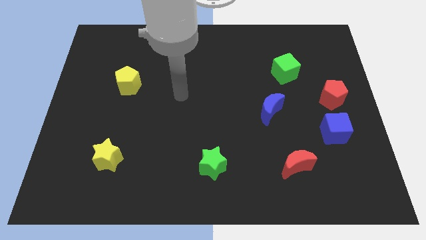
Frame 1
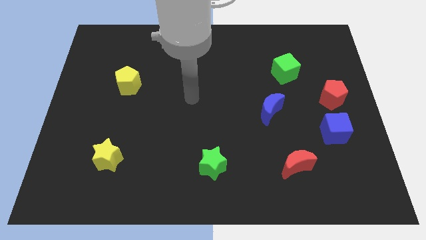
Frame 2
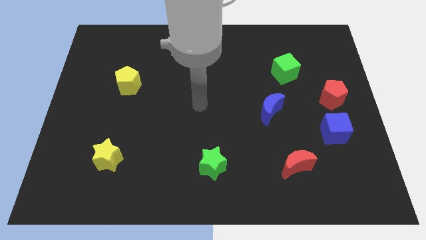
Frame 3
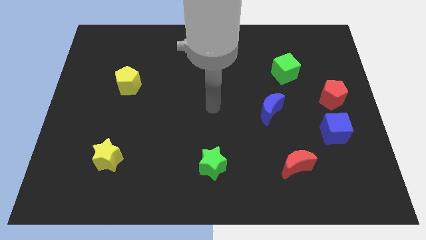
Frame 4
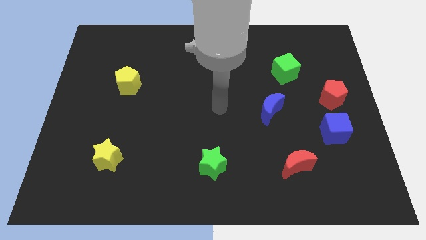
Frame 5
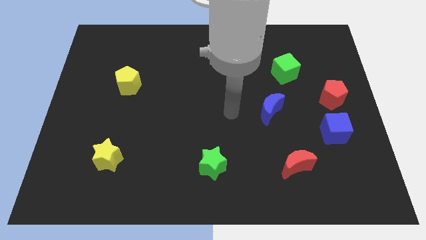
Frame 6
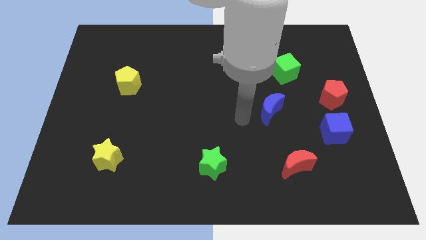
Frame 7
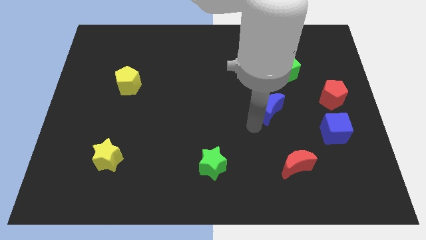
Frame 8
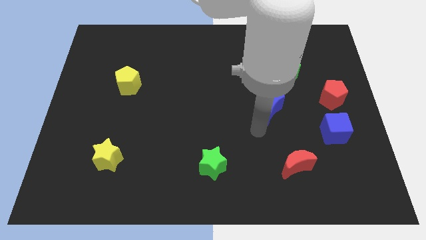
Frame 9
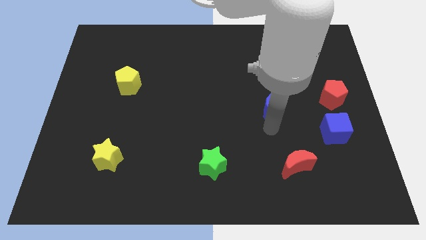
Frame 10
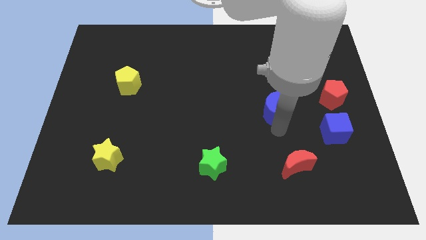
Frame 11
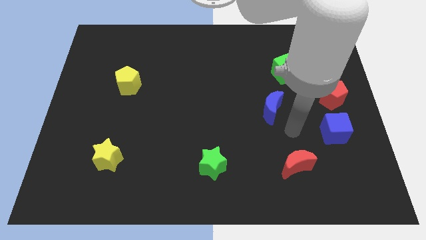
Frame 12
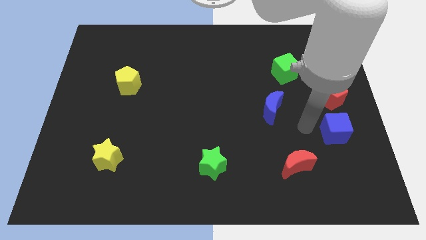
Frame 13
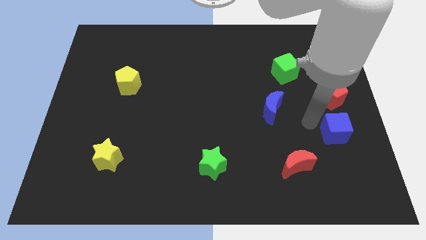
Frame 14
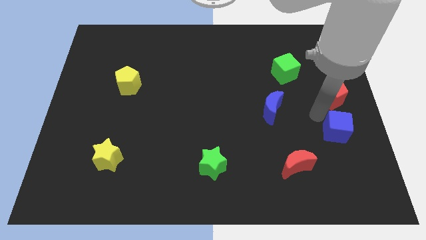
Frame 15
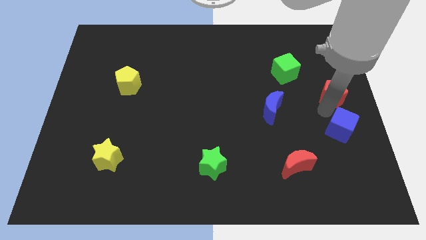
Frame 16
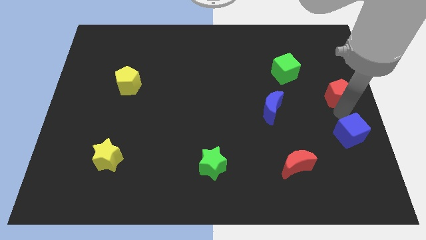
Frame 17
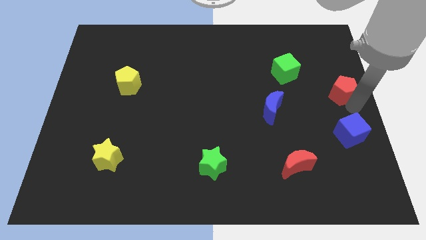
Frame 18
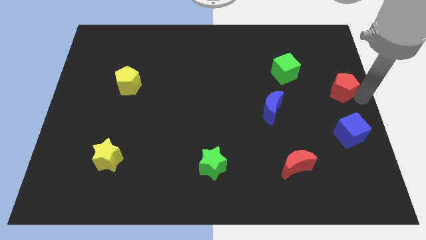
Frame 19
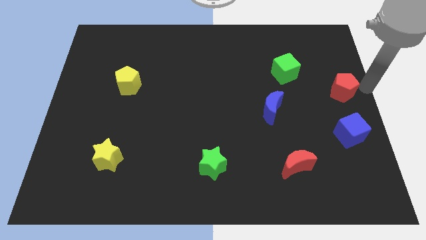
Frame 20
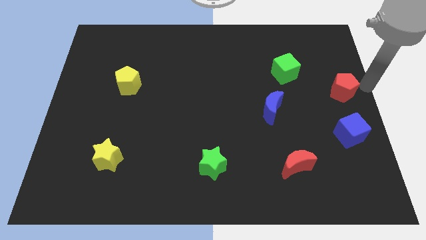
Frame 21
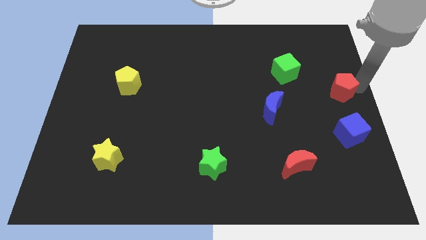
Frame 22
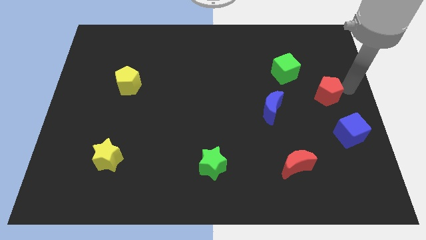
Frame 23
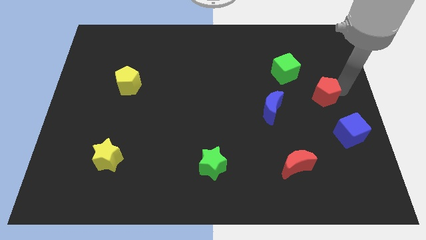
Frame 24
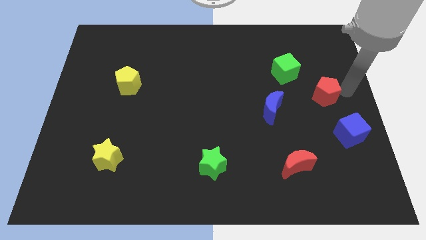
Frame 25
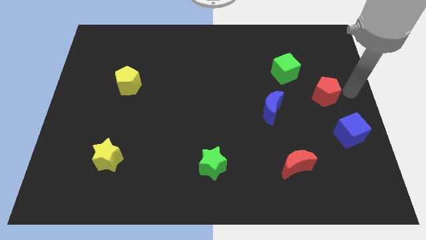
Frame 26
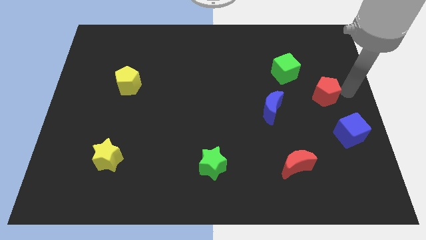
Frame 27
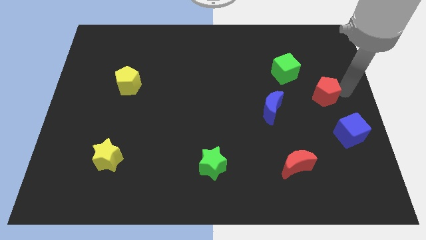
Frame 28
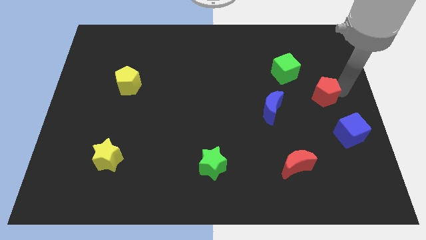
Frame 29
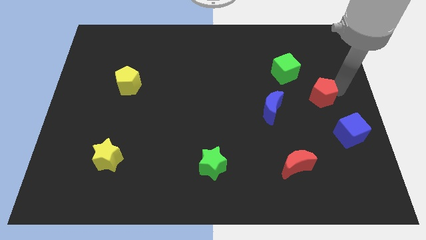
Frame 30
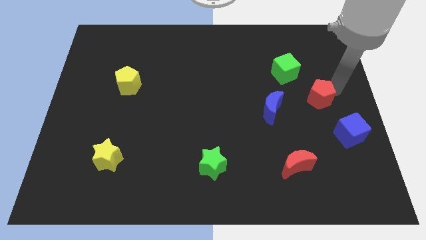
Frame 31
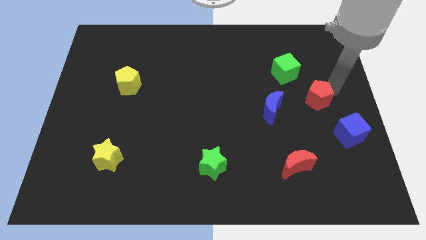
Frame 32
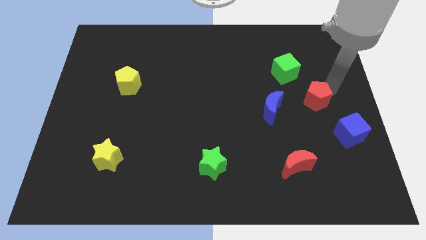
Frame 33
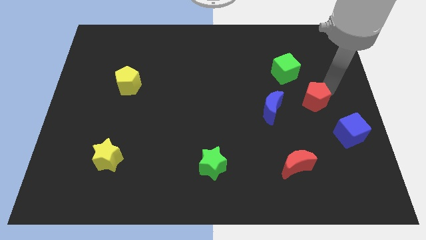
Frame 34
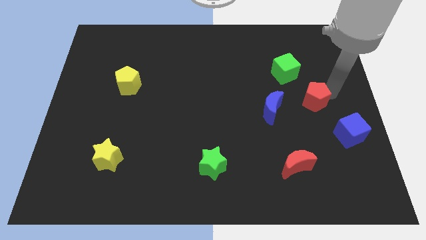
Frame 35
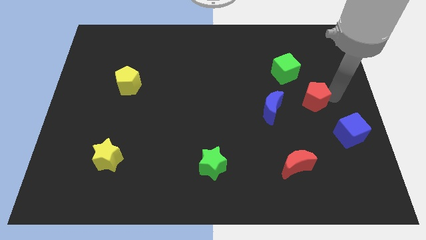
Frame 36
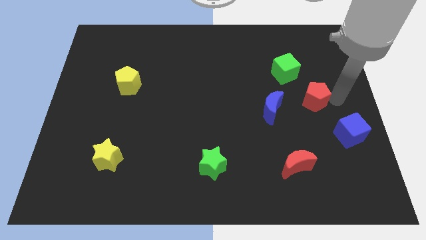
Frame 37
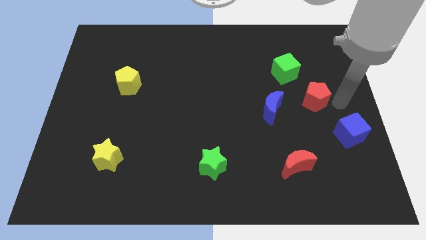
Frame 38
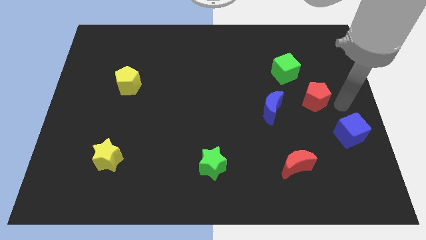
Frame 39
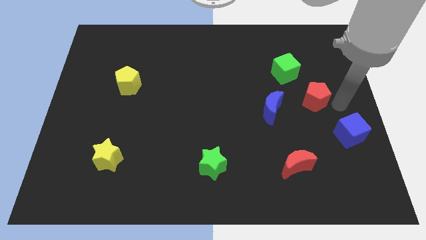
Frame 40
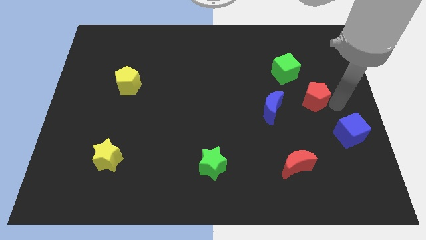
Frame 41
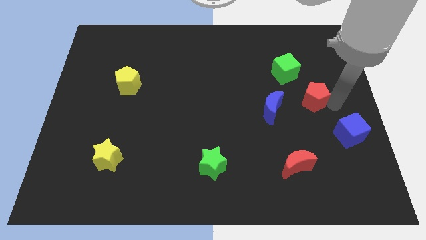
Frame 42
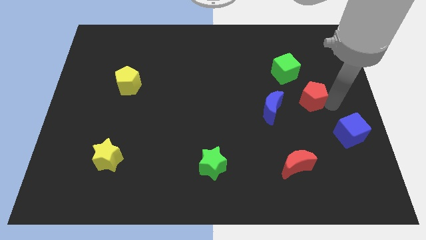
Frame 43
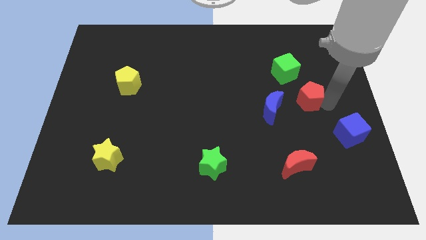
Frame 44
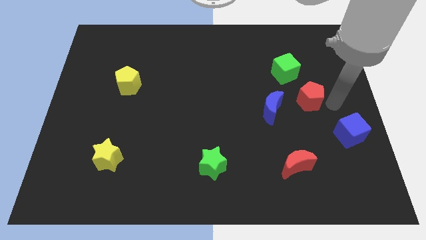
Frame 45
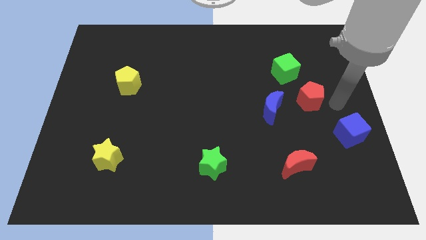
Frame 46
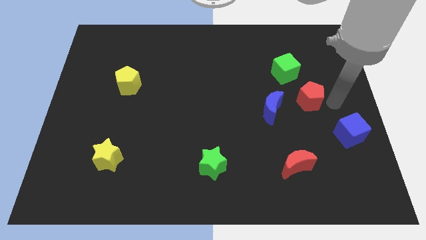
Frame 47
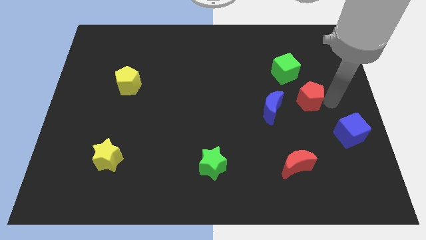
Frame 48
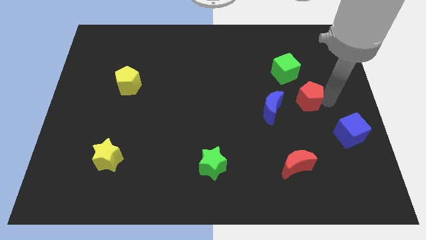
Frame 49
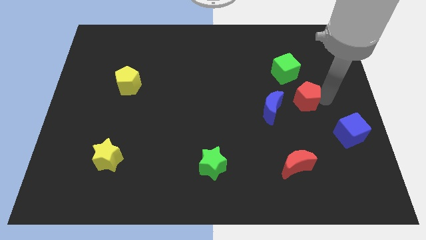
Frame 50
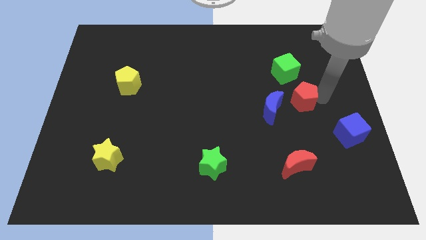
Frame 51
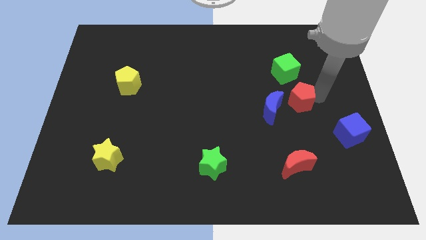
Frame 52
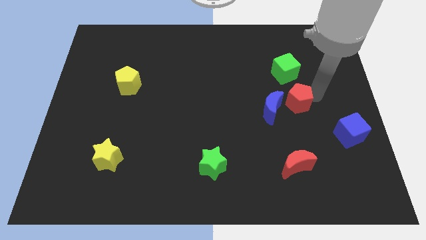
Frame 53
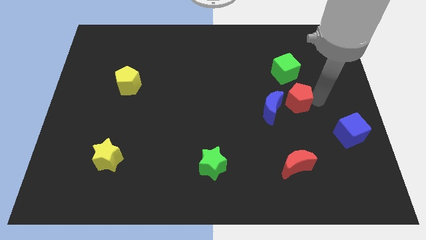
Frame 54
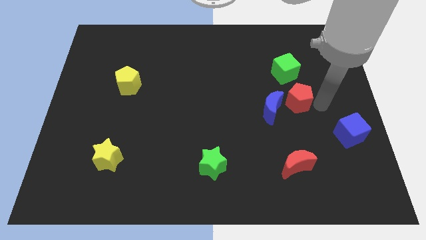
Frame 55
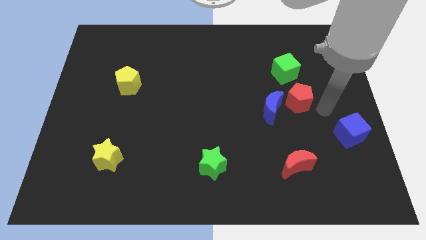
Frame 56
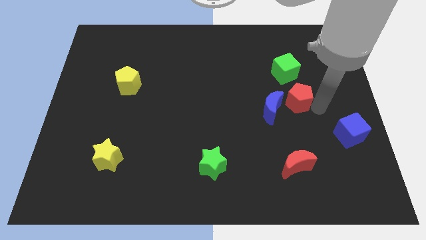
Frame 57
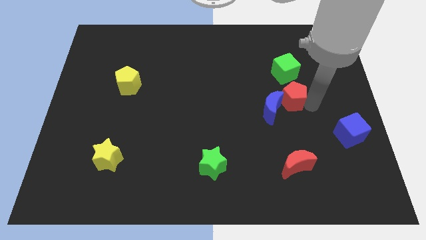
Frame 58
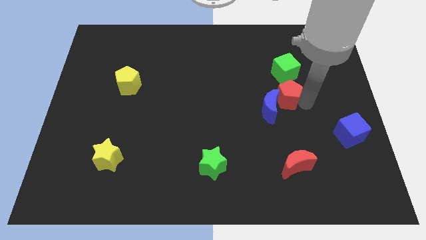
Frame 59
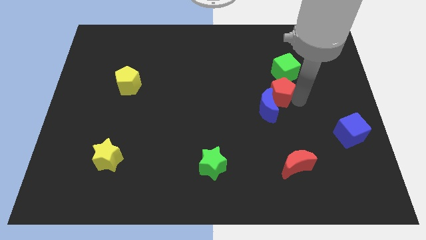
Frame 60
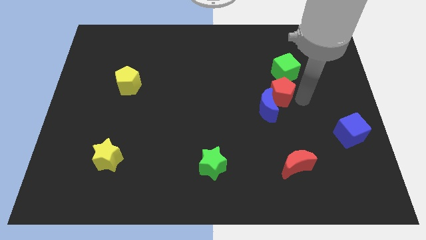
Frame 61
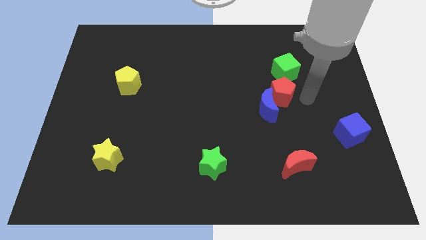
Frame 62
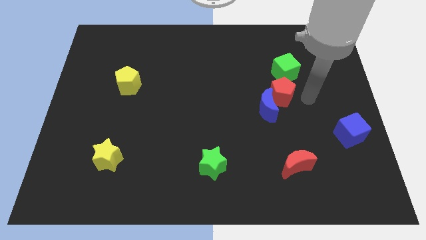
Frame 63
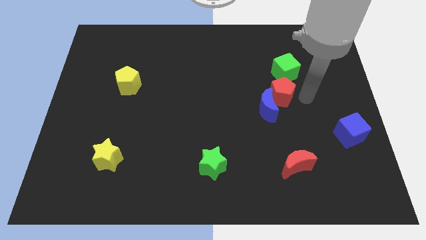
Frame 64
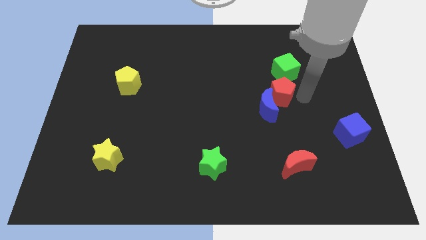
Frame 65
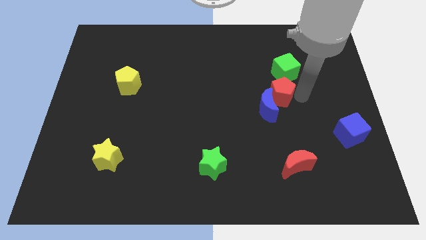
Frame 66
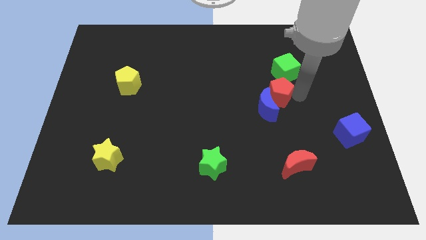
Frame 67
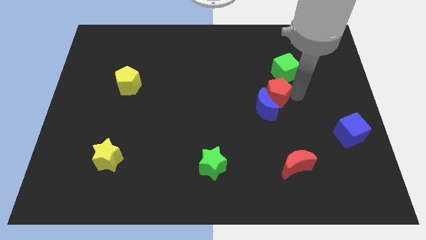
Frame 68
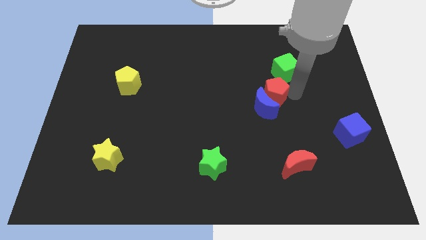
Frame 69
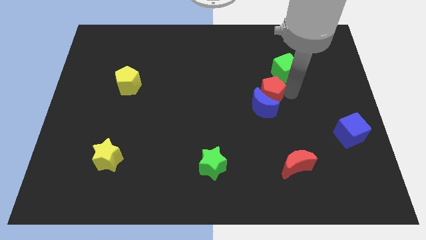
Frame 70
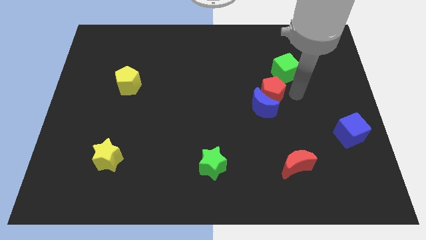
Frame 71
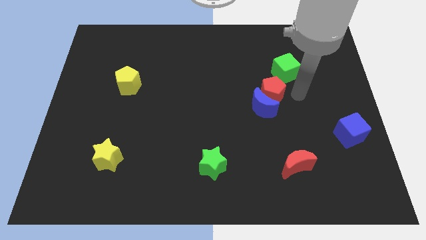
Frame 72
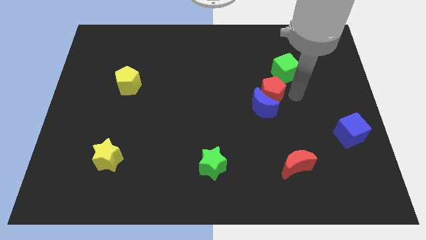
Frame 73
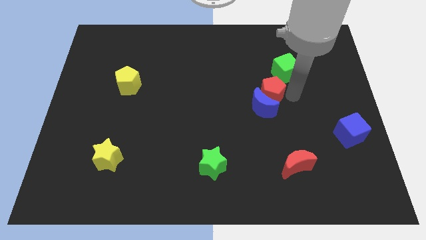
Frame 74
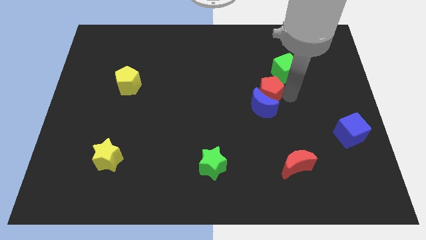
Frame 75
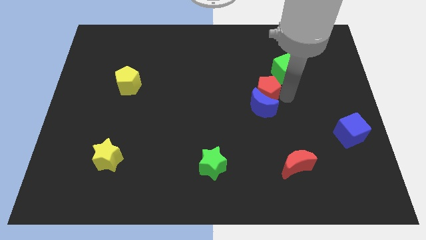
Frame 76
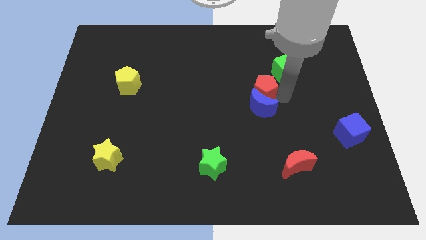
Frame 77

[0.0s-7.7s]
put the red pentagon to the center of the board
